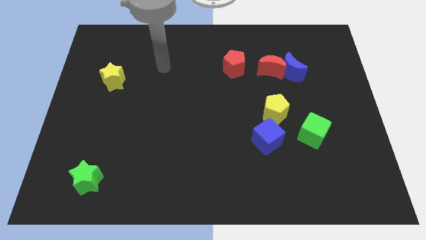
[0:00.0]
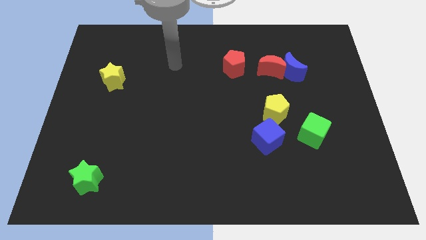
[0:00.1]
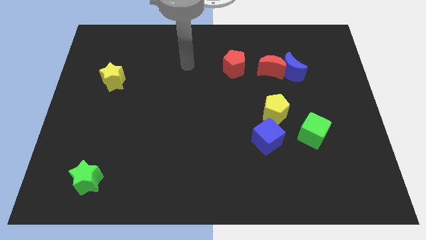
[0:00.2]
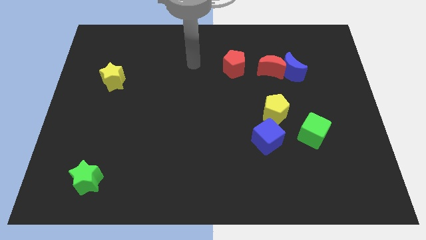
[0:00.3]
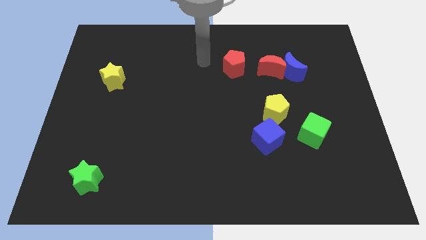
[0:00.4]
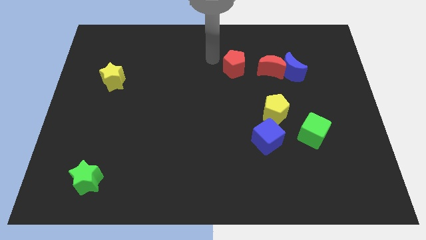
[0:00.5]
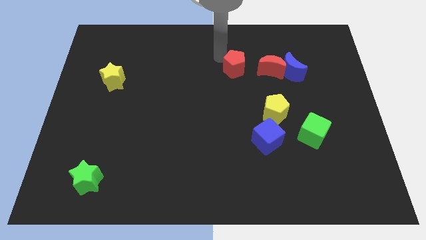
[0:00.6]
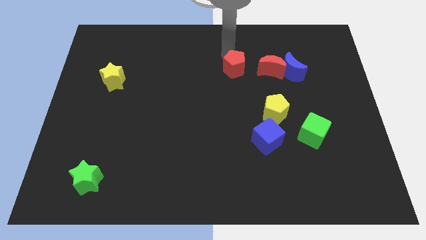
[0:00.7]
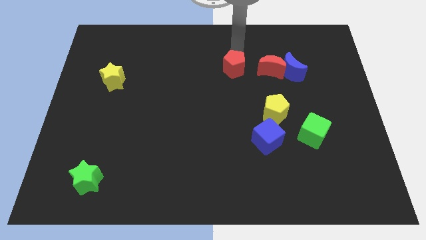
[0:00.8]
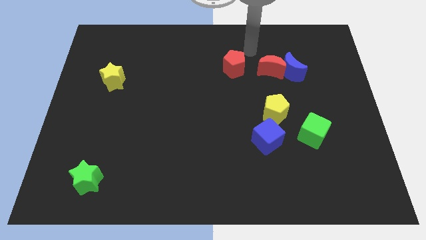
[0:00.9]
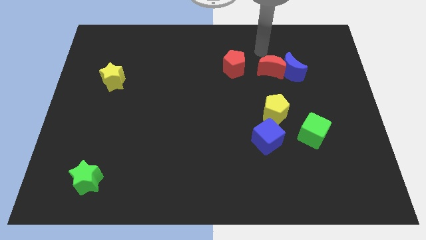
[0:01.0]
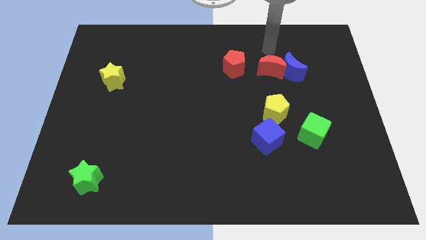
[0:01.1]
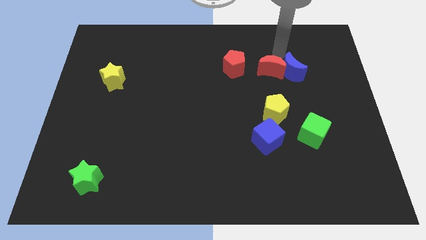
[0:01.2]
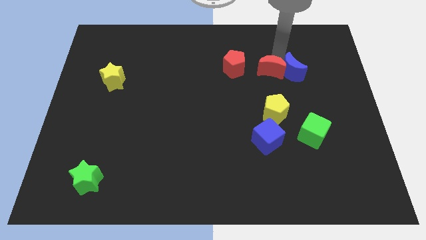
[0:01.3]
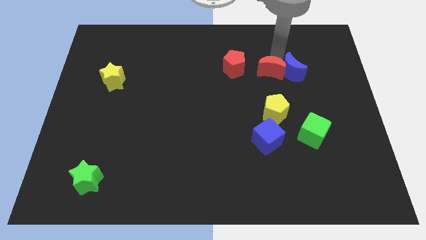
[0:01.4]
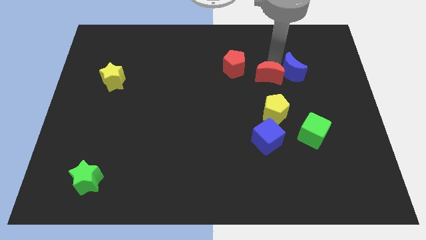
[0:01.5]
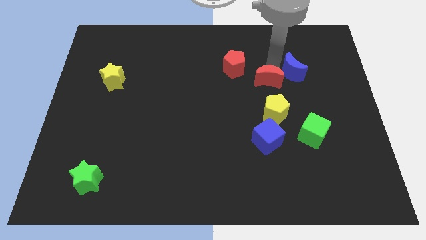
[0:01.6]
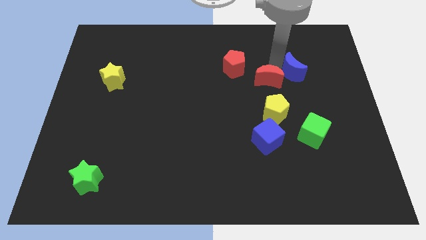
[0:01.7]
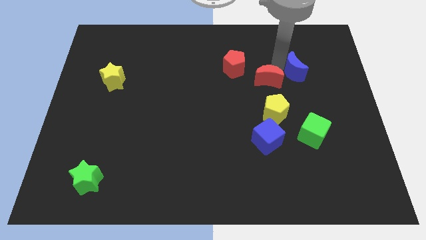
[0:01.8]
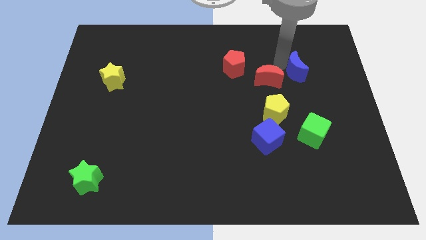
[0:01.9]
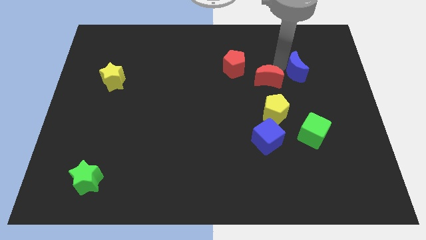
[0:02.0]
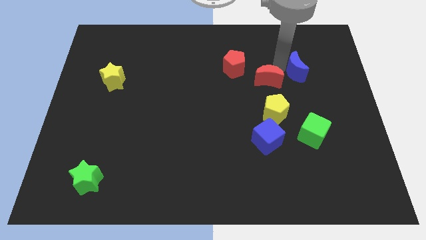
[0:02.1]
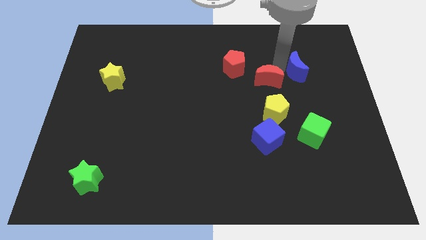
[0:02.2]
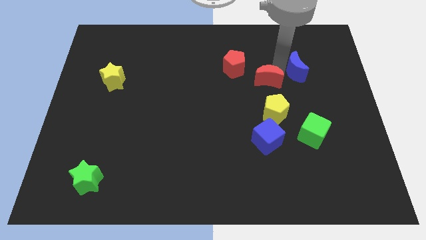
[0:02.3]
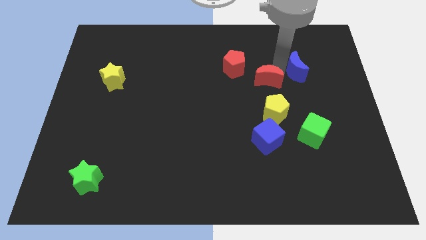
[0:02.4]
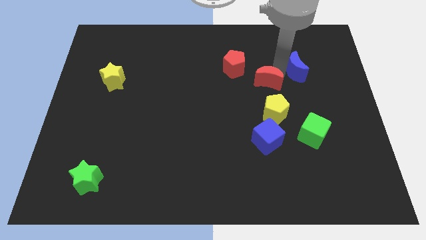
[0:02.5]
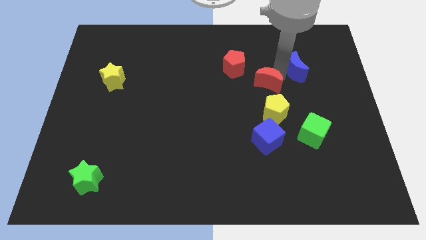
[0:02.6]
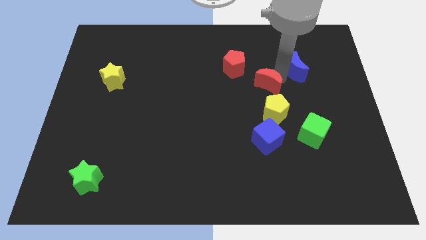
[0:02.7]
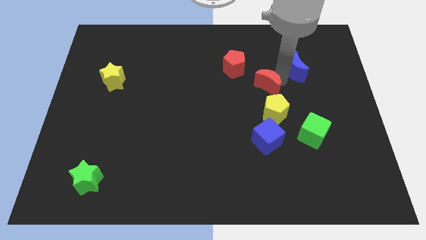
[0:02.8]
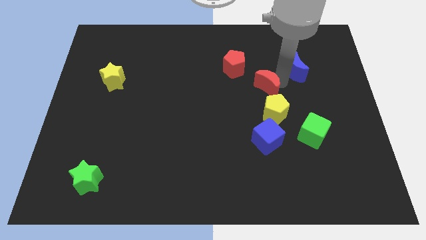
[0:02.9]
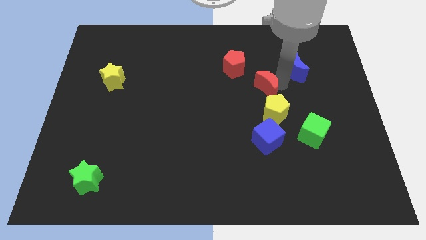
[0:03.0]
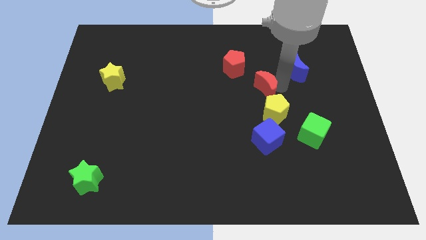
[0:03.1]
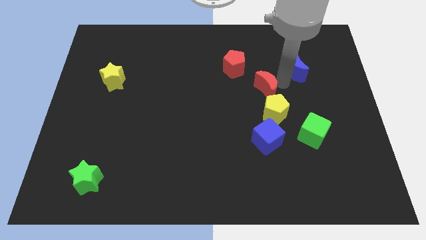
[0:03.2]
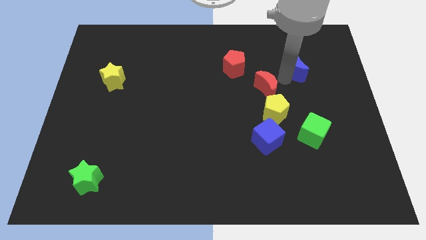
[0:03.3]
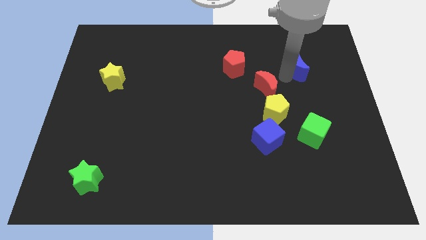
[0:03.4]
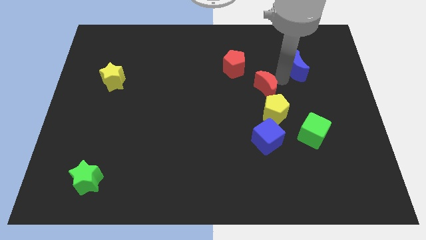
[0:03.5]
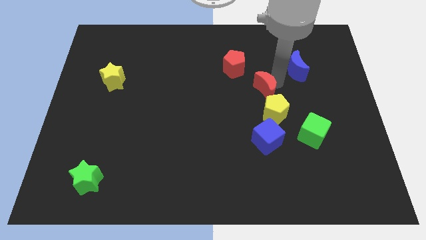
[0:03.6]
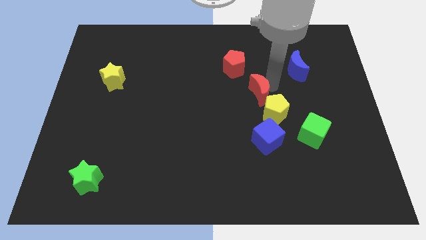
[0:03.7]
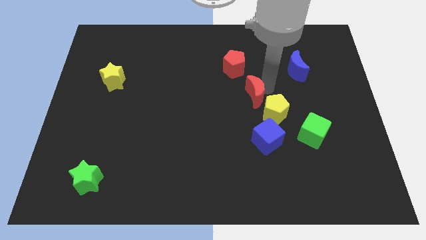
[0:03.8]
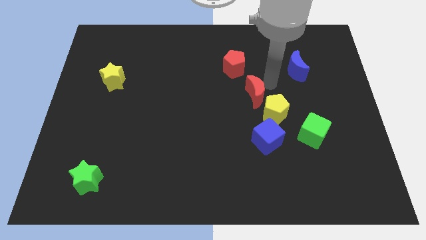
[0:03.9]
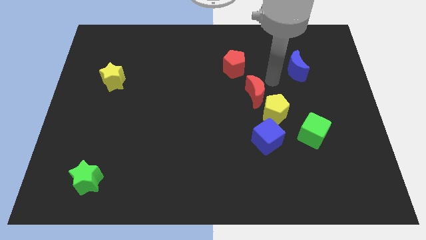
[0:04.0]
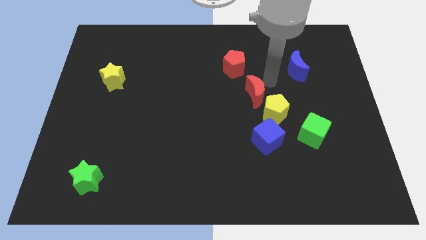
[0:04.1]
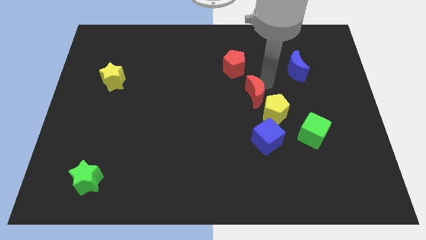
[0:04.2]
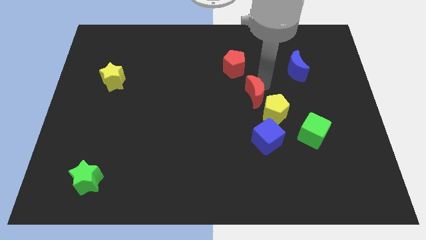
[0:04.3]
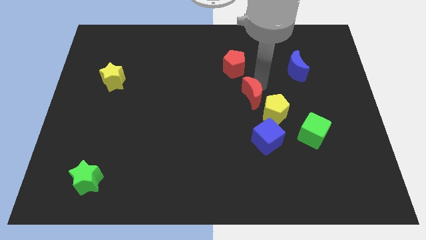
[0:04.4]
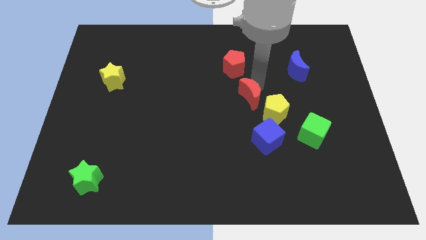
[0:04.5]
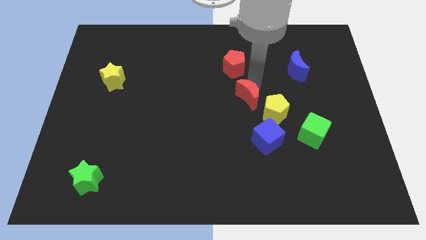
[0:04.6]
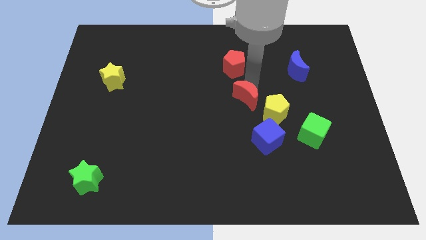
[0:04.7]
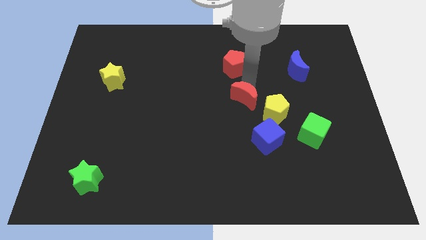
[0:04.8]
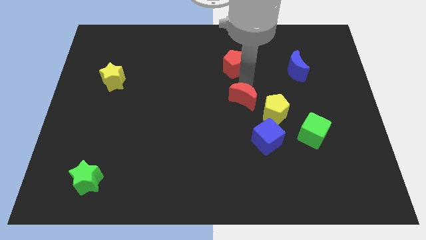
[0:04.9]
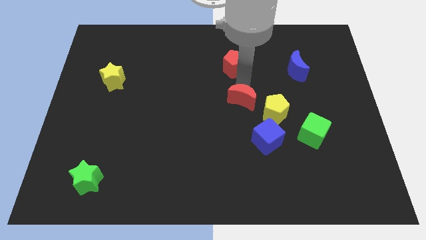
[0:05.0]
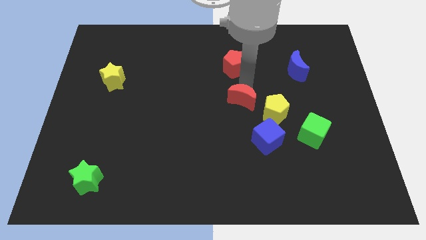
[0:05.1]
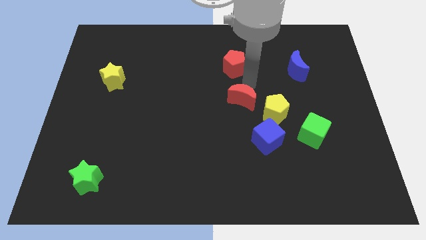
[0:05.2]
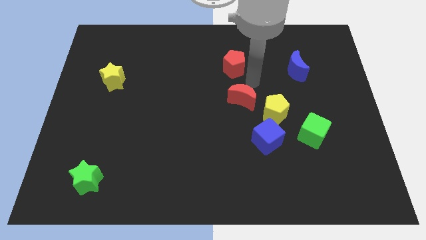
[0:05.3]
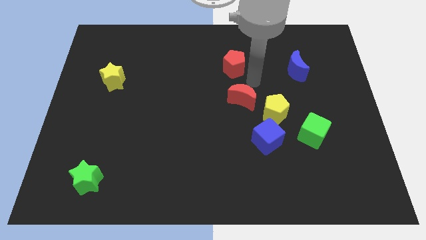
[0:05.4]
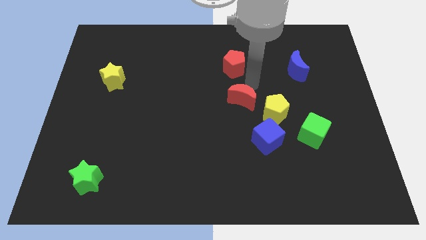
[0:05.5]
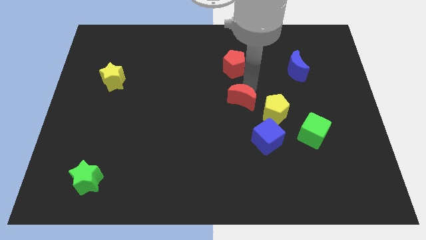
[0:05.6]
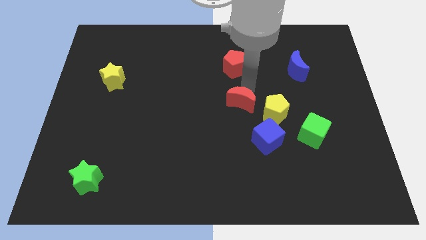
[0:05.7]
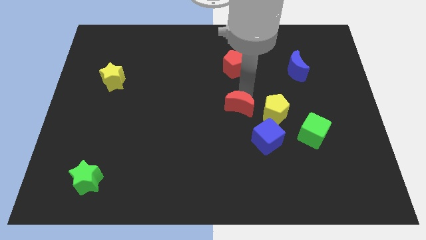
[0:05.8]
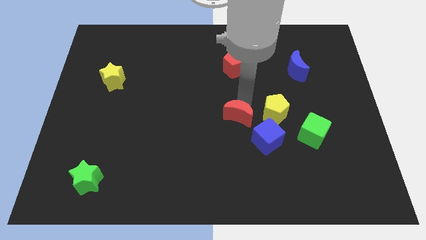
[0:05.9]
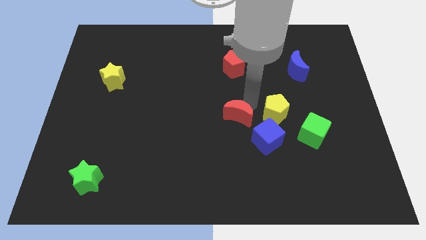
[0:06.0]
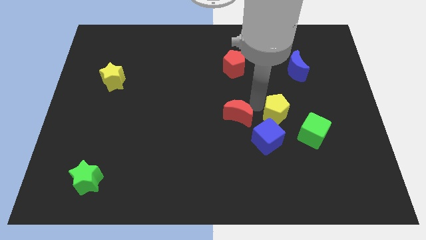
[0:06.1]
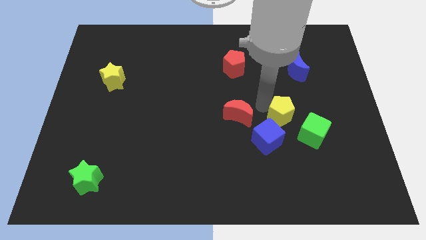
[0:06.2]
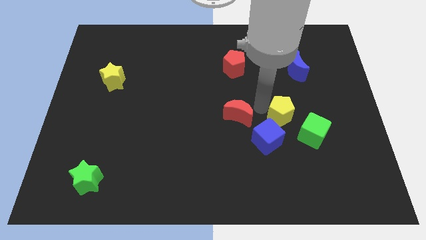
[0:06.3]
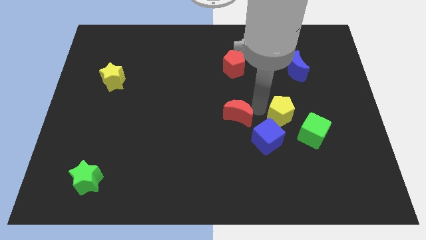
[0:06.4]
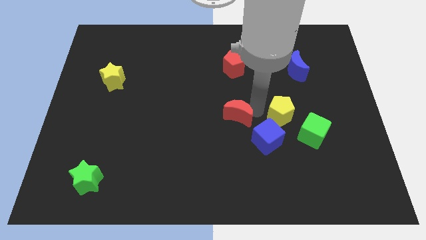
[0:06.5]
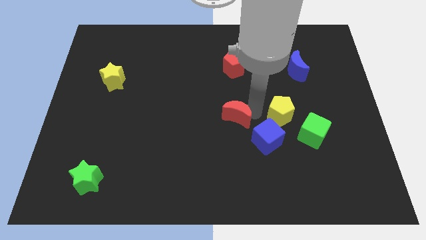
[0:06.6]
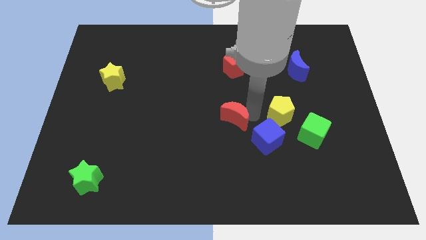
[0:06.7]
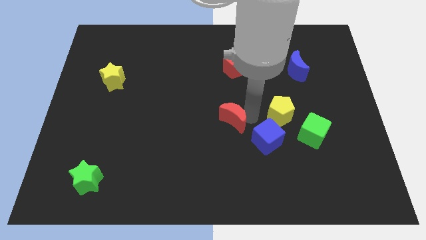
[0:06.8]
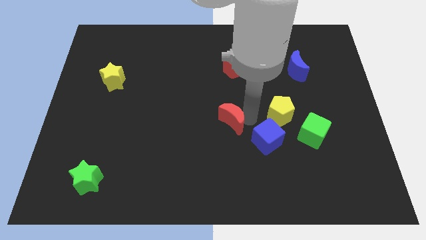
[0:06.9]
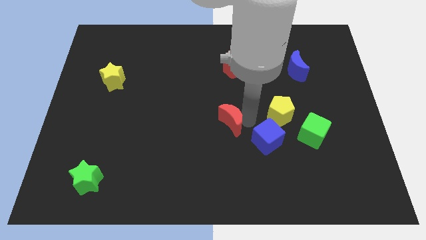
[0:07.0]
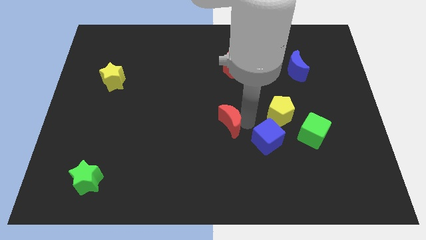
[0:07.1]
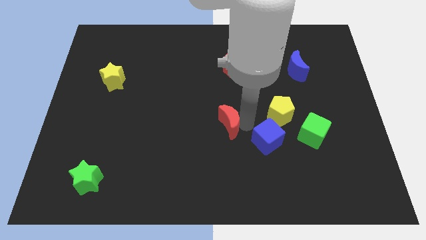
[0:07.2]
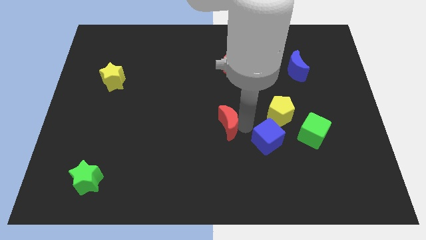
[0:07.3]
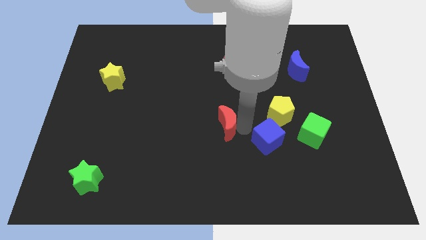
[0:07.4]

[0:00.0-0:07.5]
slide the red moon downwards and left

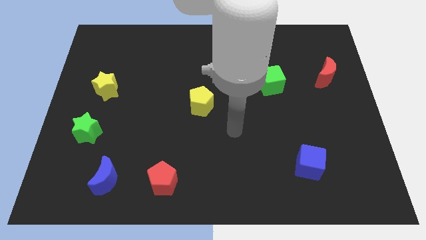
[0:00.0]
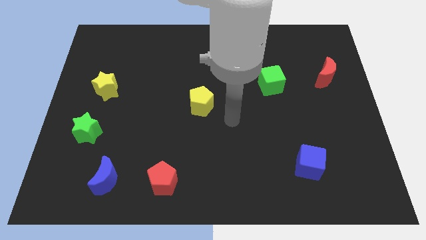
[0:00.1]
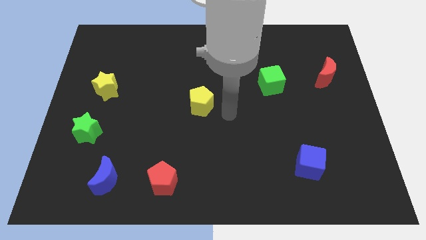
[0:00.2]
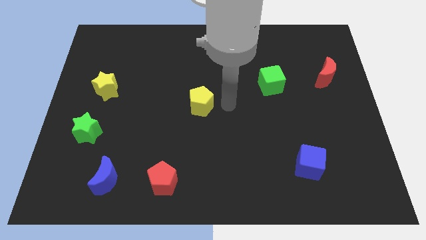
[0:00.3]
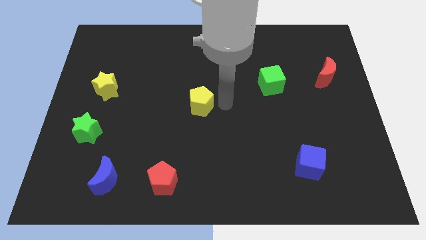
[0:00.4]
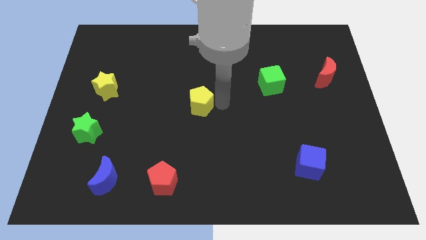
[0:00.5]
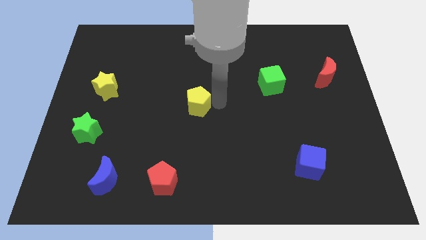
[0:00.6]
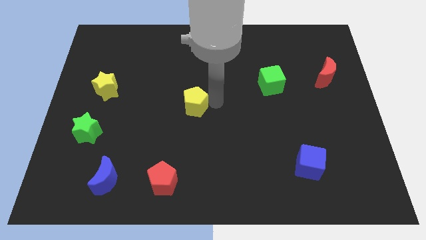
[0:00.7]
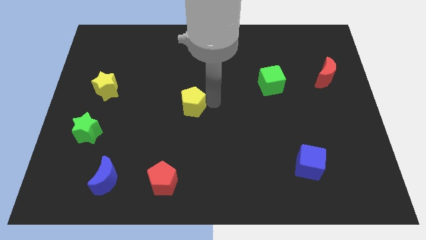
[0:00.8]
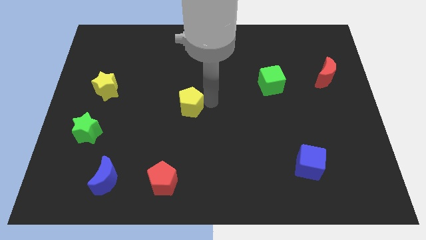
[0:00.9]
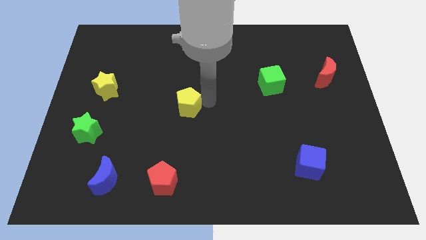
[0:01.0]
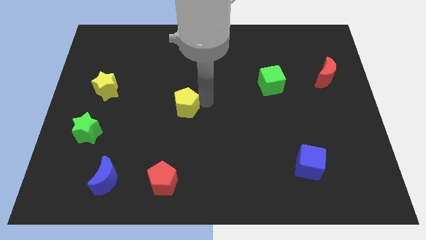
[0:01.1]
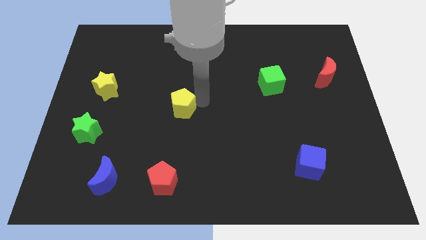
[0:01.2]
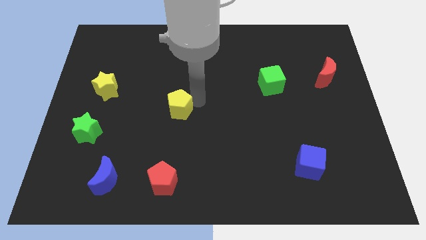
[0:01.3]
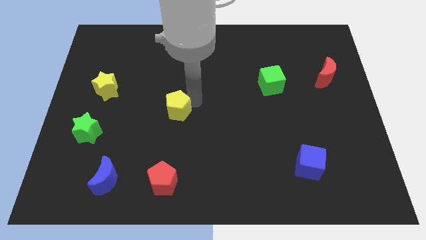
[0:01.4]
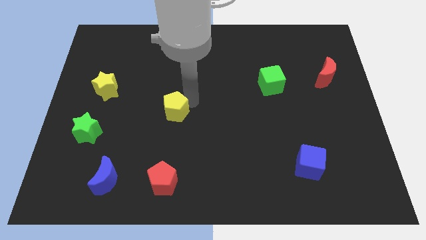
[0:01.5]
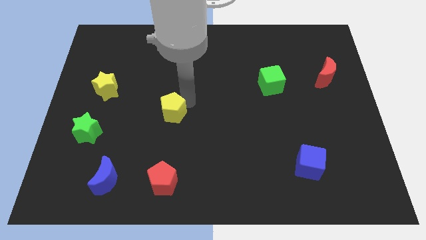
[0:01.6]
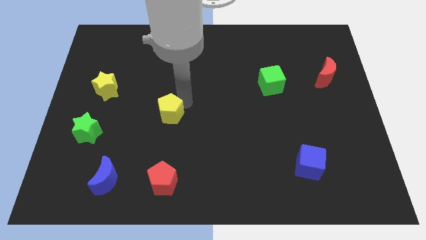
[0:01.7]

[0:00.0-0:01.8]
slightly push the yellow pentagon to the left
